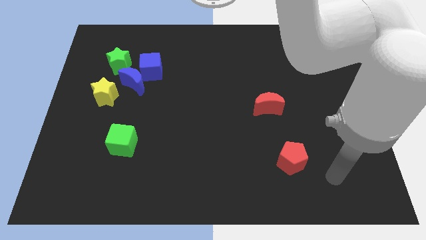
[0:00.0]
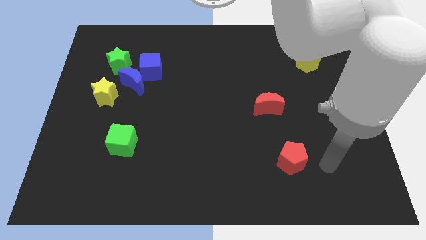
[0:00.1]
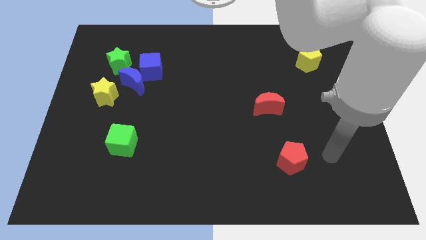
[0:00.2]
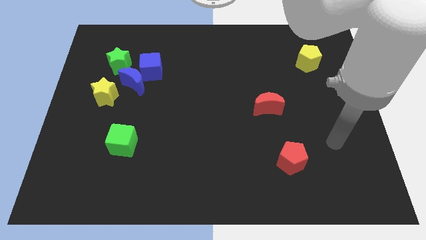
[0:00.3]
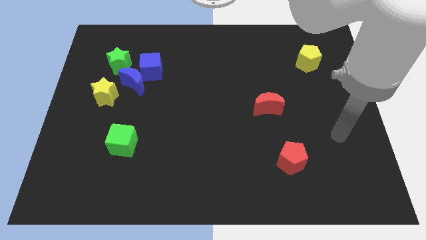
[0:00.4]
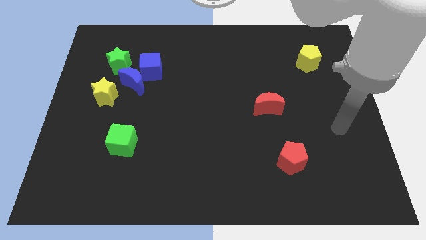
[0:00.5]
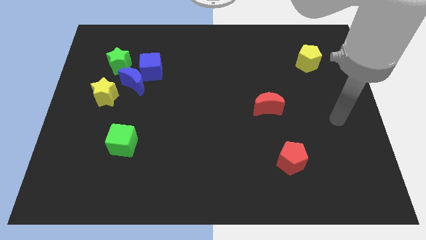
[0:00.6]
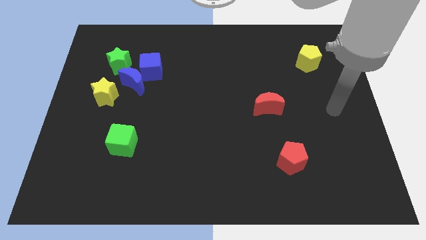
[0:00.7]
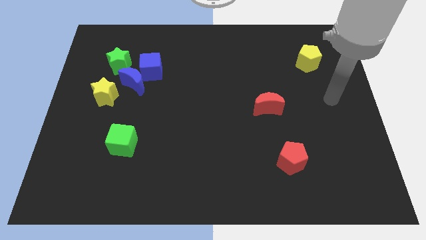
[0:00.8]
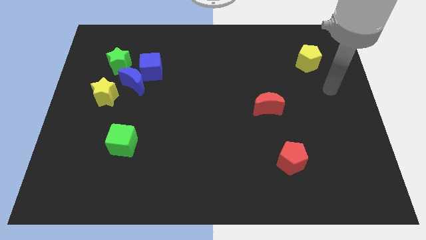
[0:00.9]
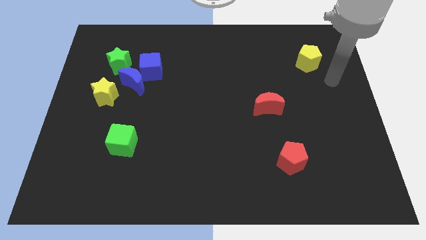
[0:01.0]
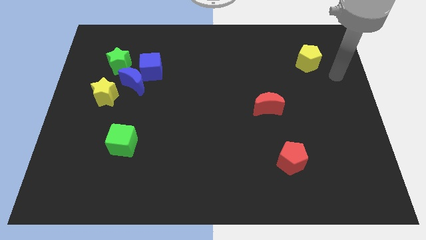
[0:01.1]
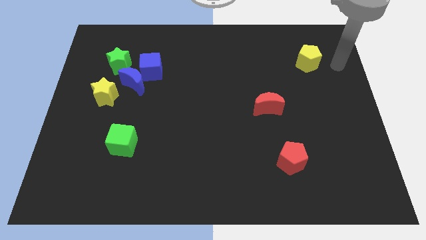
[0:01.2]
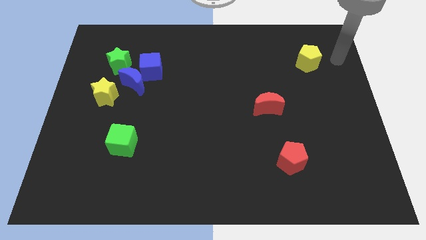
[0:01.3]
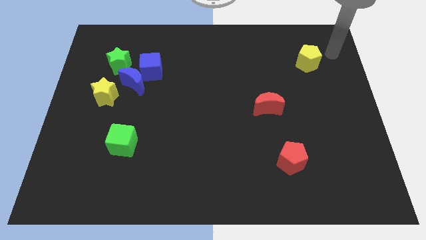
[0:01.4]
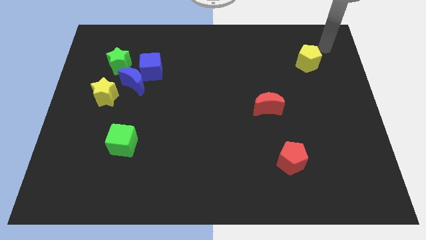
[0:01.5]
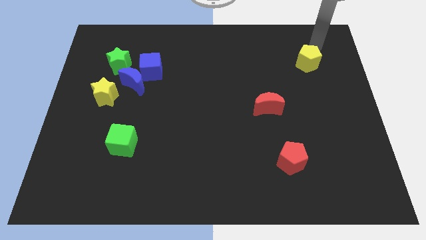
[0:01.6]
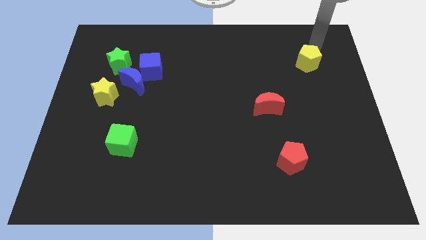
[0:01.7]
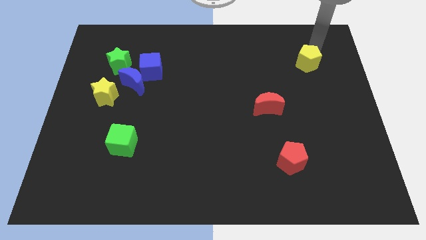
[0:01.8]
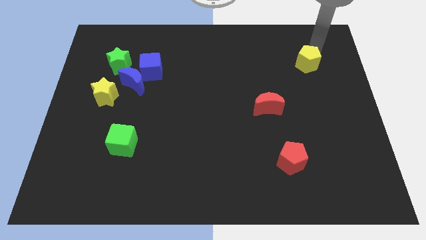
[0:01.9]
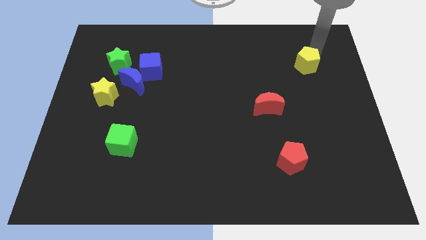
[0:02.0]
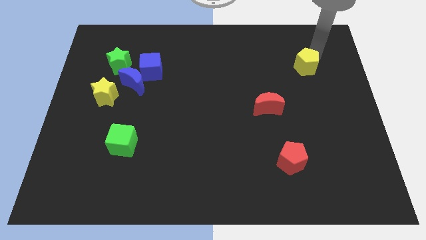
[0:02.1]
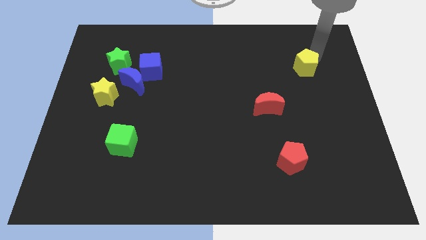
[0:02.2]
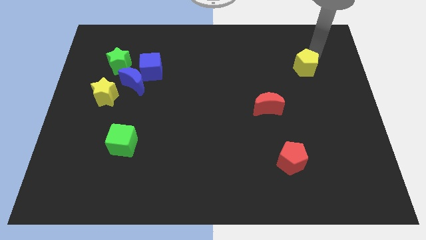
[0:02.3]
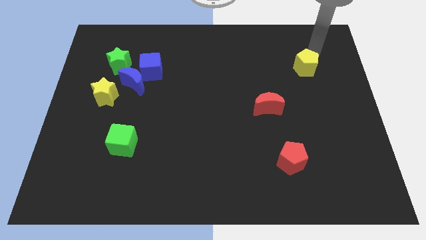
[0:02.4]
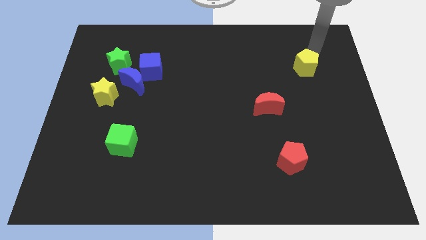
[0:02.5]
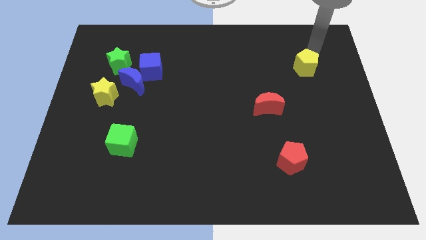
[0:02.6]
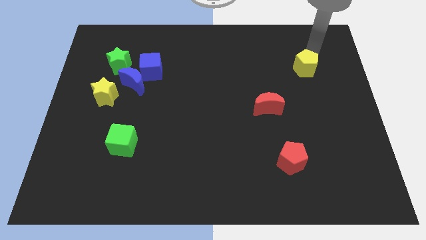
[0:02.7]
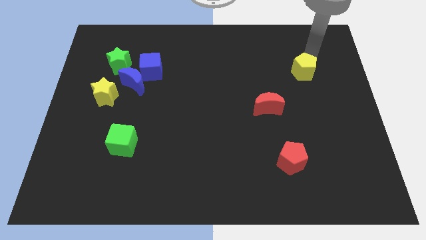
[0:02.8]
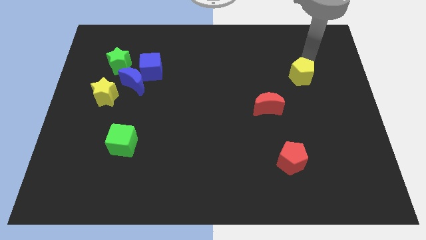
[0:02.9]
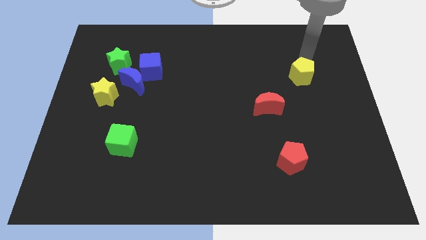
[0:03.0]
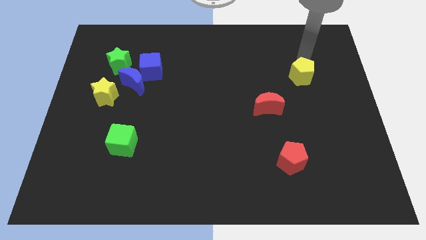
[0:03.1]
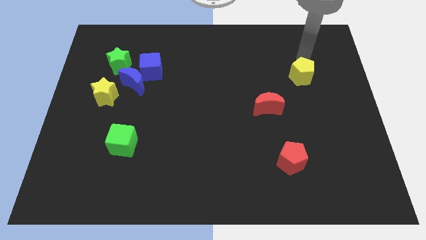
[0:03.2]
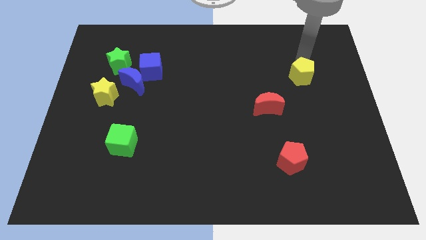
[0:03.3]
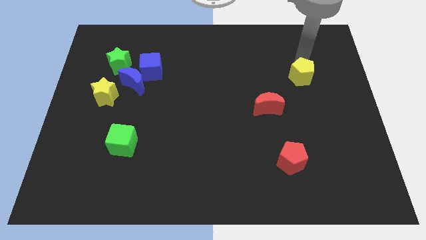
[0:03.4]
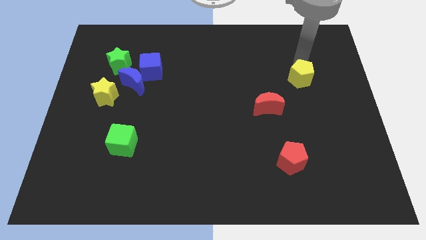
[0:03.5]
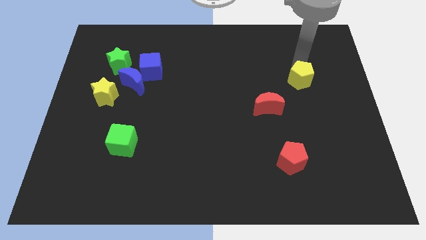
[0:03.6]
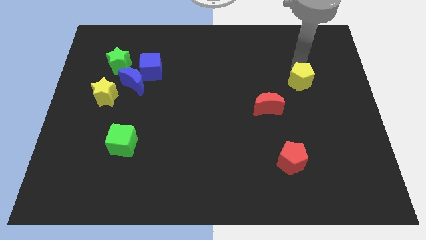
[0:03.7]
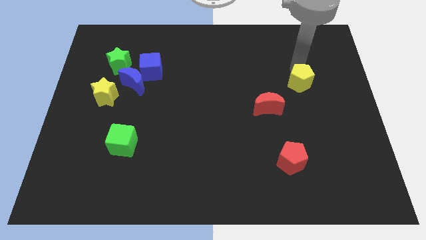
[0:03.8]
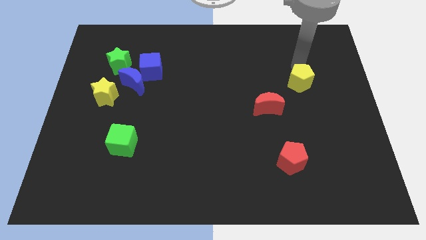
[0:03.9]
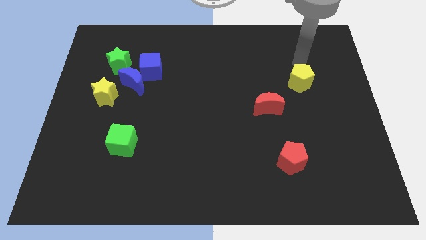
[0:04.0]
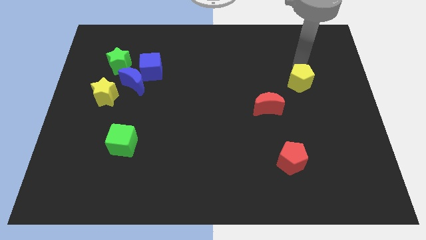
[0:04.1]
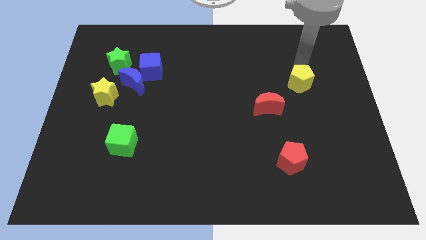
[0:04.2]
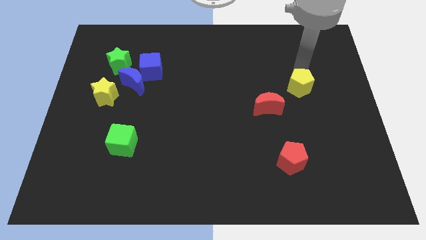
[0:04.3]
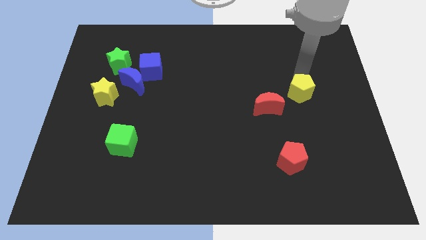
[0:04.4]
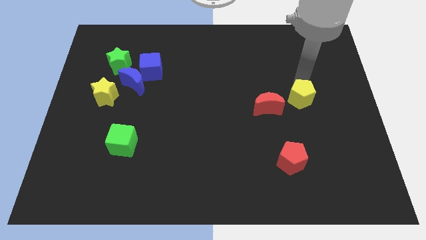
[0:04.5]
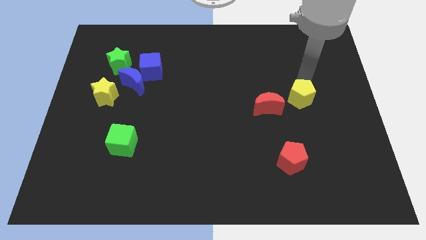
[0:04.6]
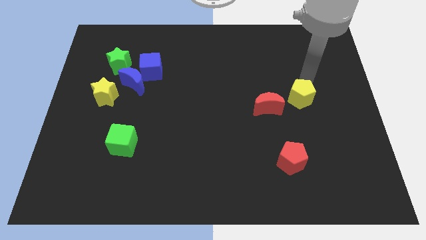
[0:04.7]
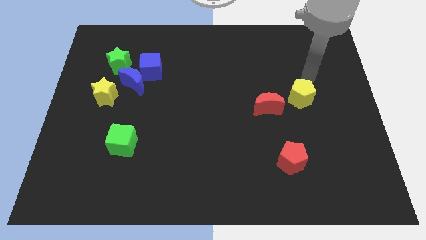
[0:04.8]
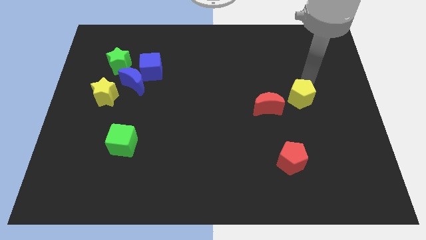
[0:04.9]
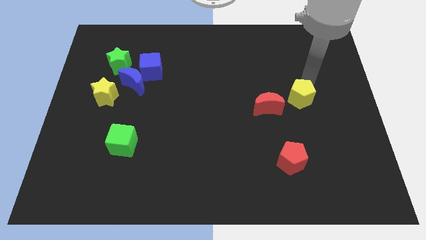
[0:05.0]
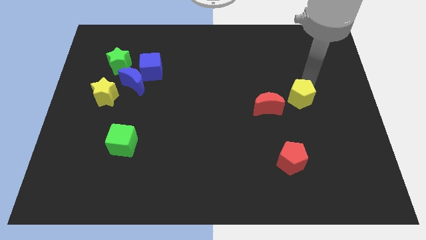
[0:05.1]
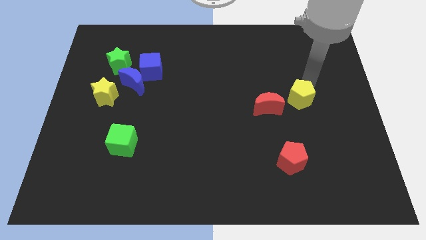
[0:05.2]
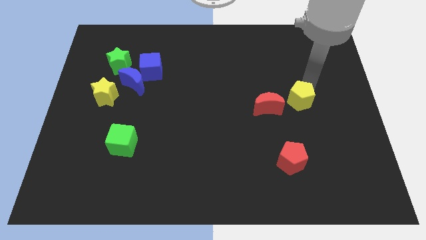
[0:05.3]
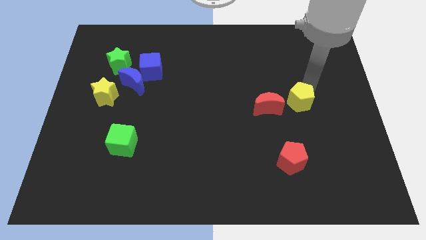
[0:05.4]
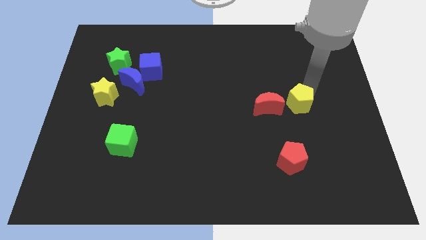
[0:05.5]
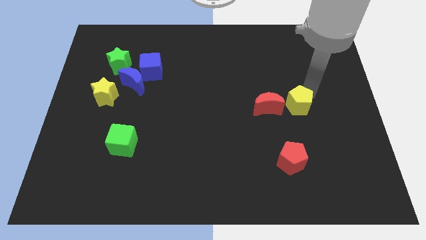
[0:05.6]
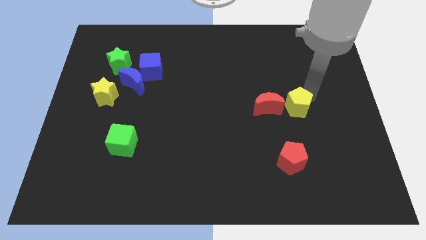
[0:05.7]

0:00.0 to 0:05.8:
push the yellow pentagon above the red pentagon

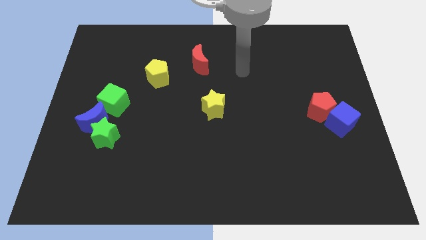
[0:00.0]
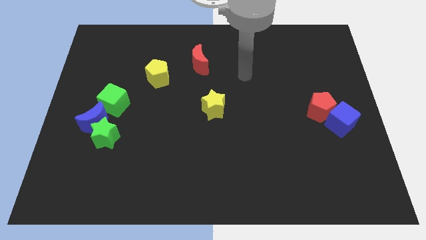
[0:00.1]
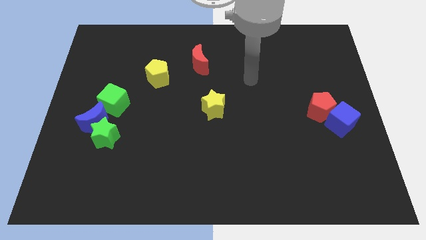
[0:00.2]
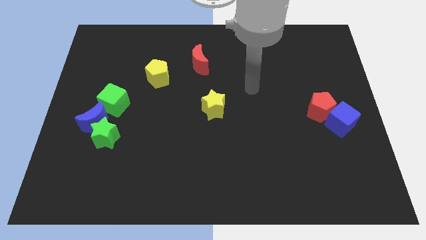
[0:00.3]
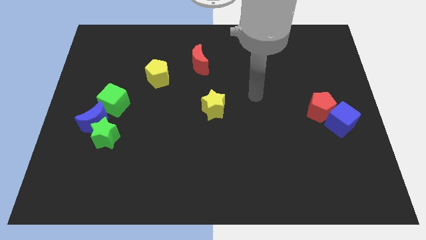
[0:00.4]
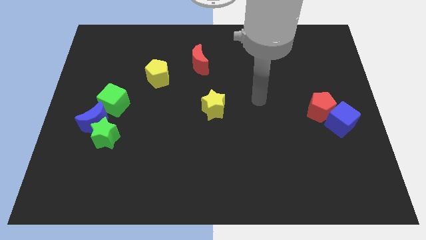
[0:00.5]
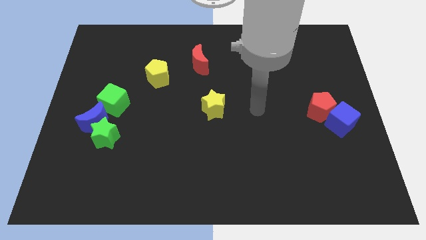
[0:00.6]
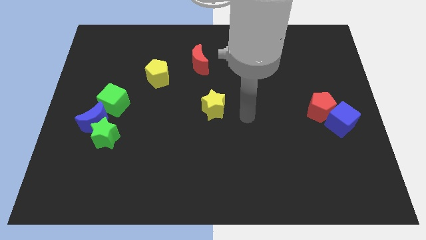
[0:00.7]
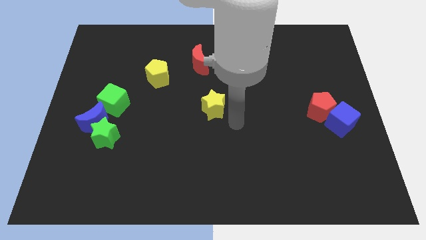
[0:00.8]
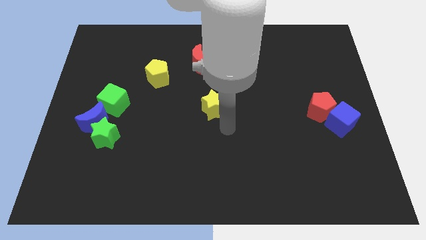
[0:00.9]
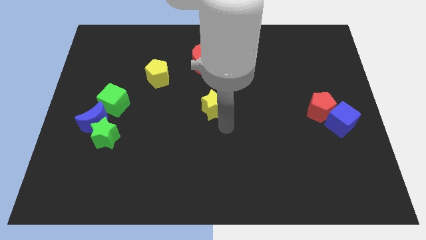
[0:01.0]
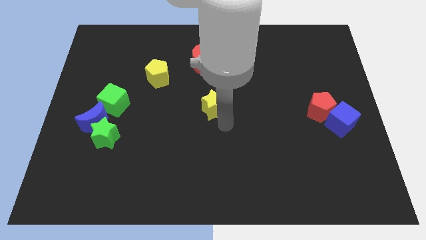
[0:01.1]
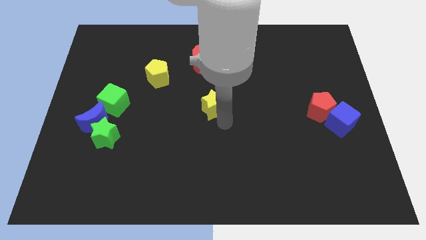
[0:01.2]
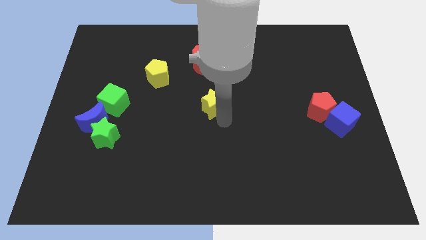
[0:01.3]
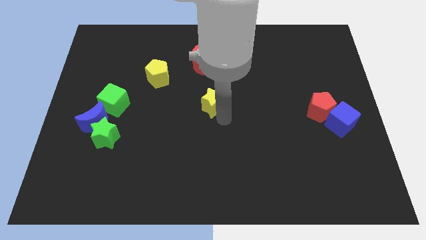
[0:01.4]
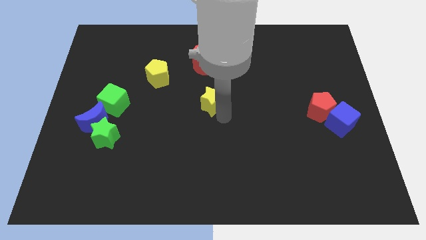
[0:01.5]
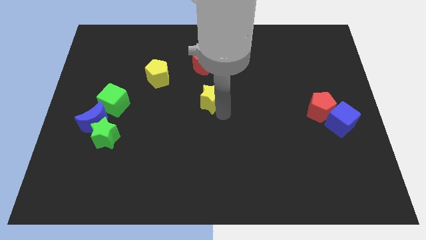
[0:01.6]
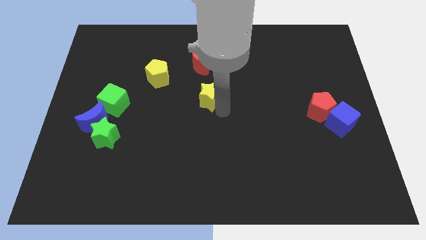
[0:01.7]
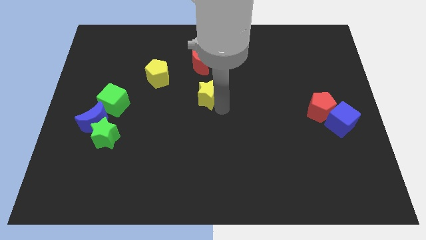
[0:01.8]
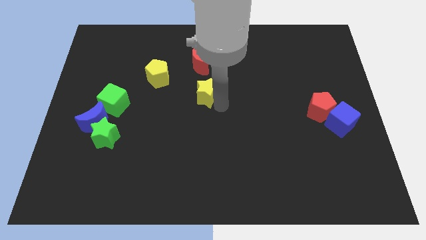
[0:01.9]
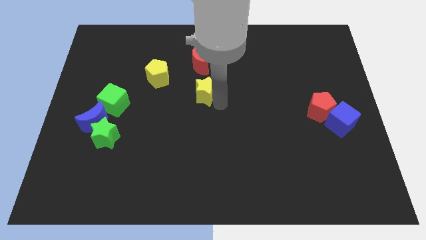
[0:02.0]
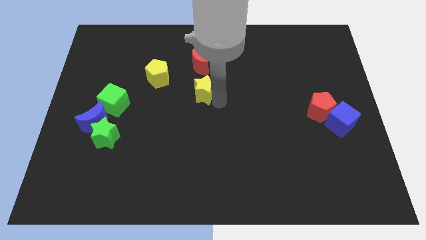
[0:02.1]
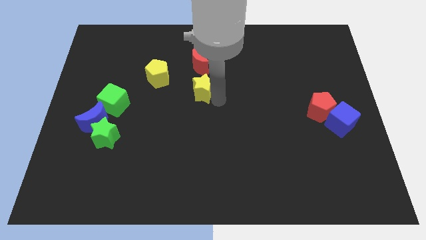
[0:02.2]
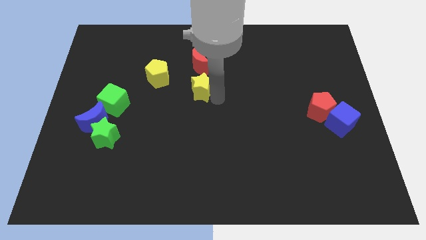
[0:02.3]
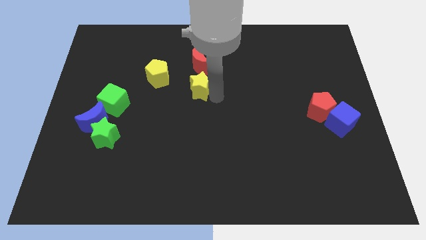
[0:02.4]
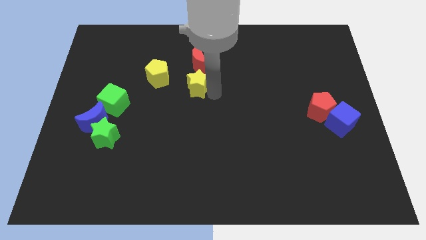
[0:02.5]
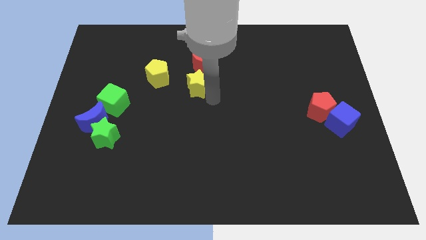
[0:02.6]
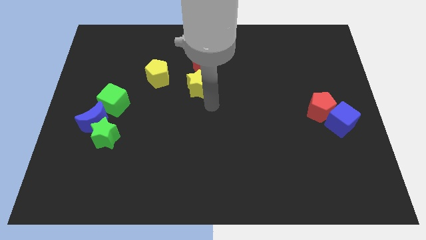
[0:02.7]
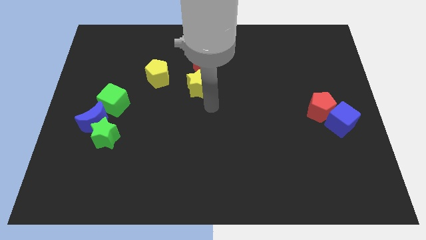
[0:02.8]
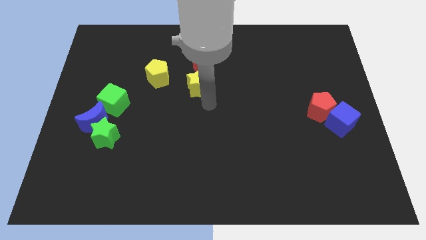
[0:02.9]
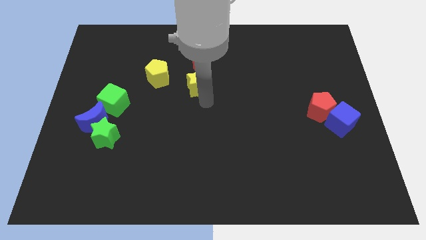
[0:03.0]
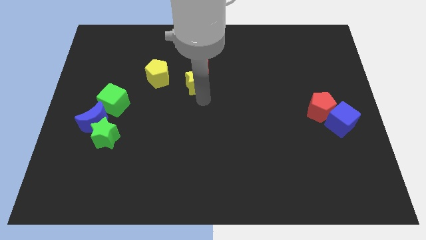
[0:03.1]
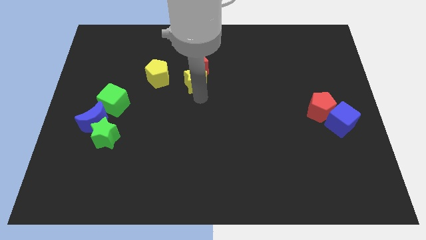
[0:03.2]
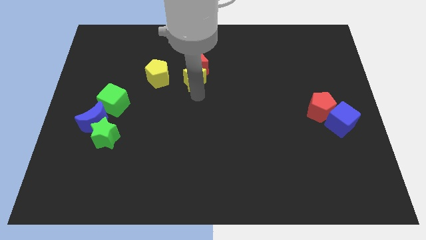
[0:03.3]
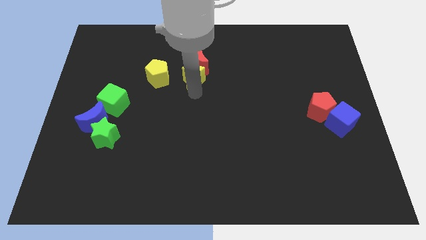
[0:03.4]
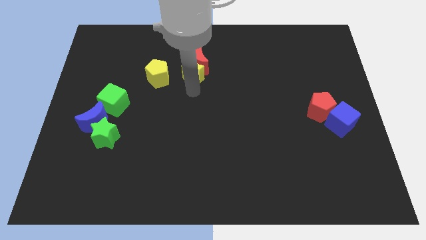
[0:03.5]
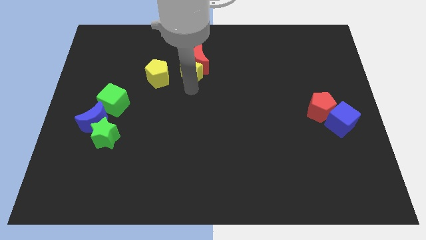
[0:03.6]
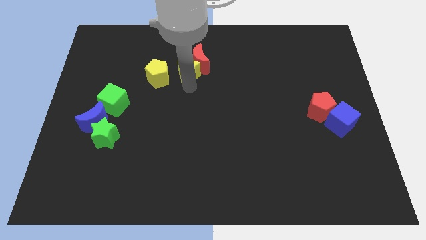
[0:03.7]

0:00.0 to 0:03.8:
push the yellow star to the top right side of the yellow pentagon
